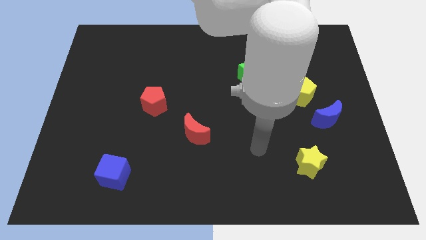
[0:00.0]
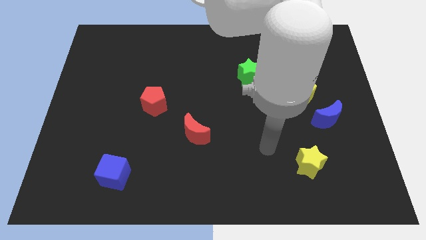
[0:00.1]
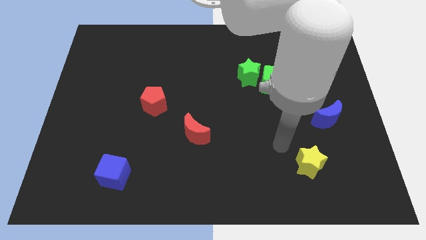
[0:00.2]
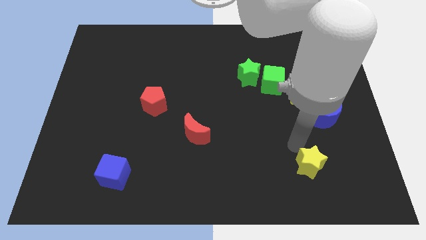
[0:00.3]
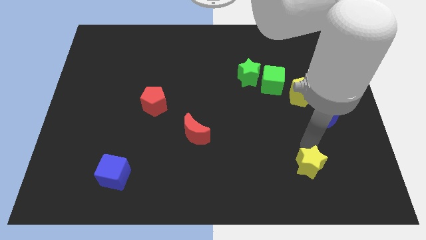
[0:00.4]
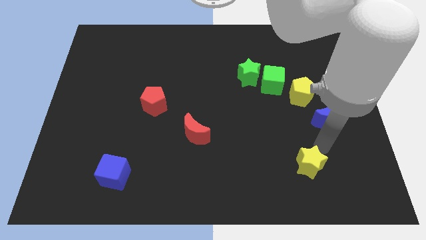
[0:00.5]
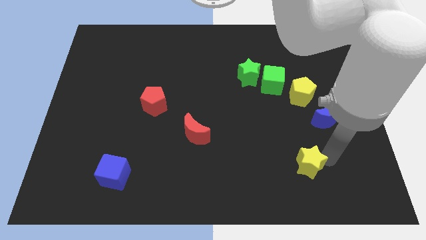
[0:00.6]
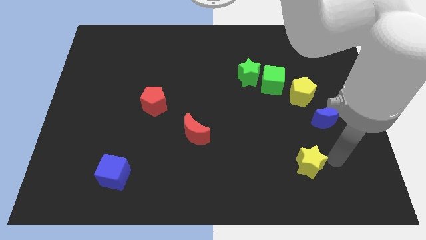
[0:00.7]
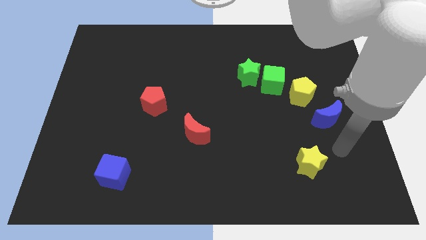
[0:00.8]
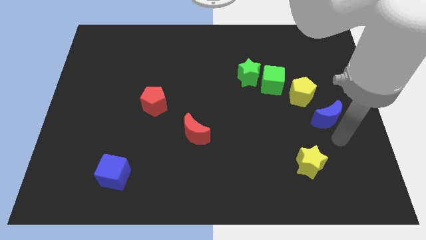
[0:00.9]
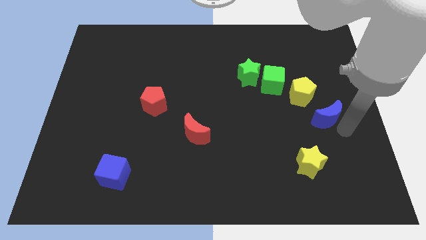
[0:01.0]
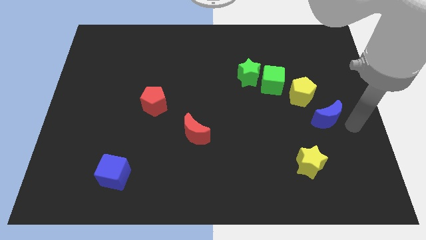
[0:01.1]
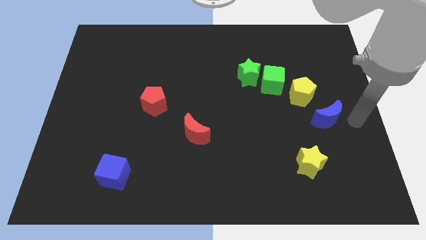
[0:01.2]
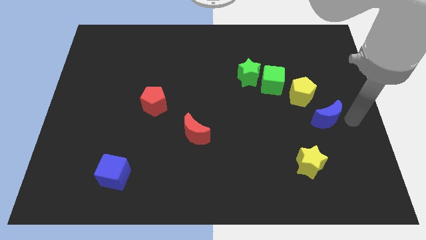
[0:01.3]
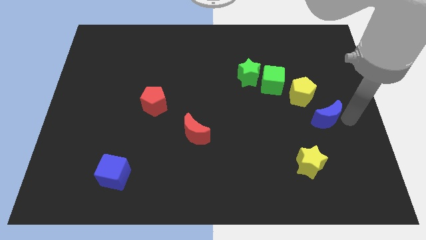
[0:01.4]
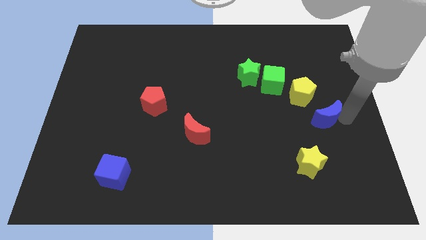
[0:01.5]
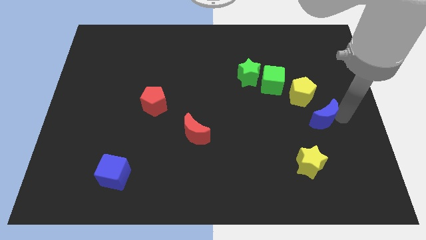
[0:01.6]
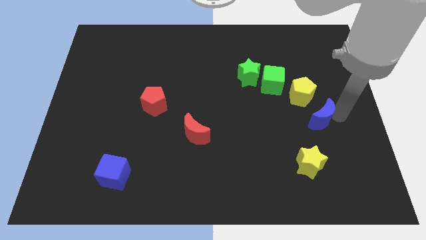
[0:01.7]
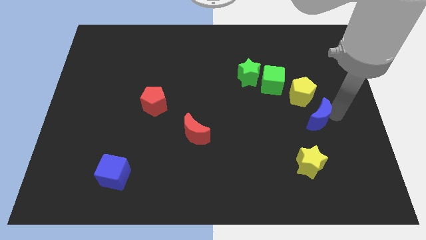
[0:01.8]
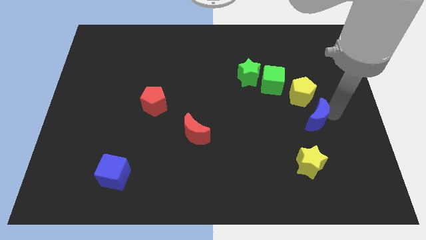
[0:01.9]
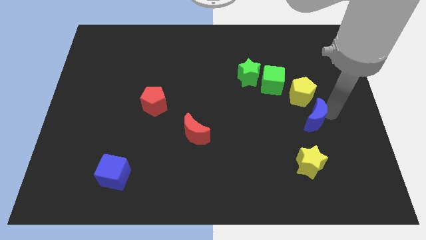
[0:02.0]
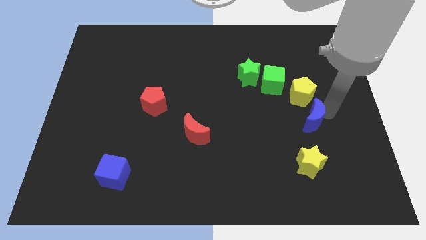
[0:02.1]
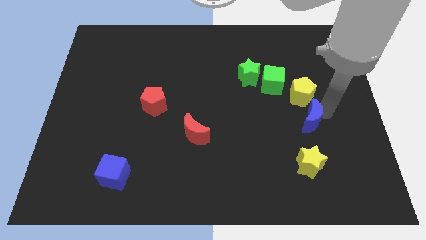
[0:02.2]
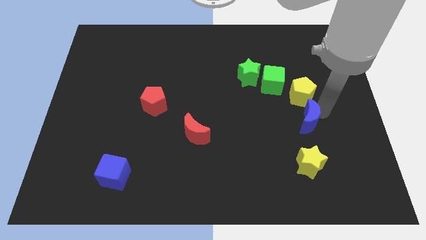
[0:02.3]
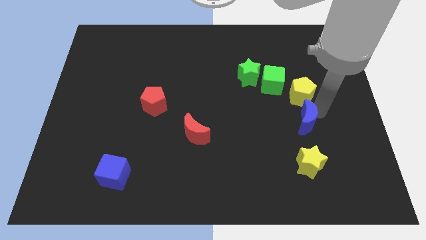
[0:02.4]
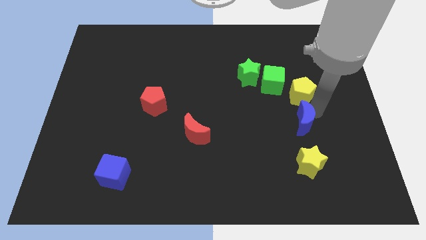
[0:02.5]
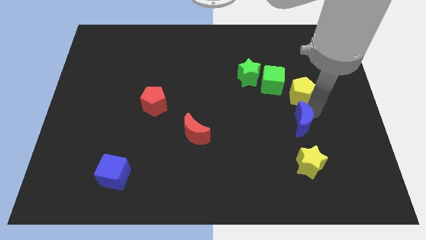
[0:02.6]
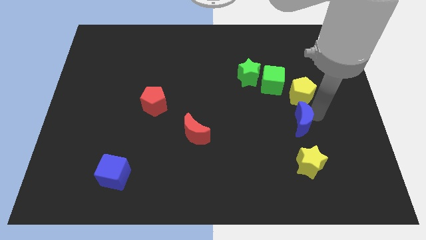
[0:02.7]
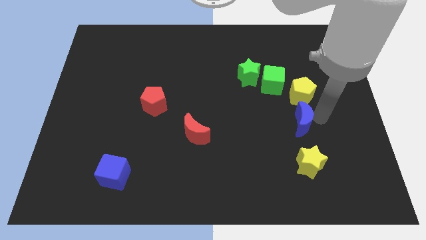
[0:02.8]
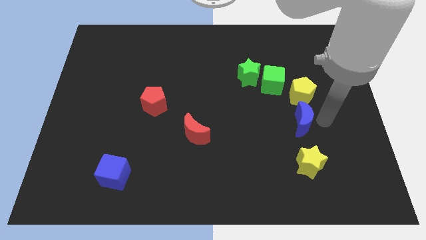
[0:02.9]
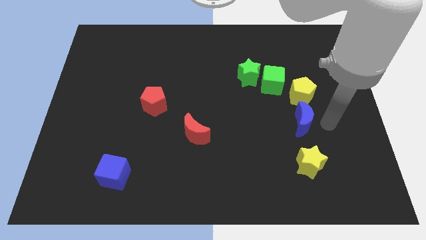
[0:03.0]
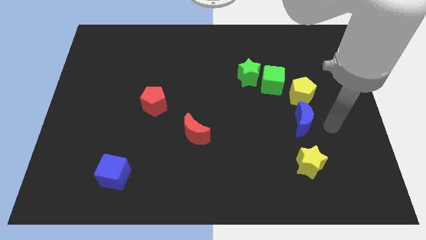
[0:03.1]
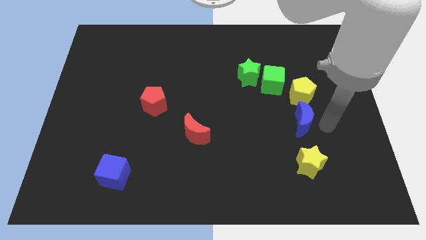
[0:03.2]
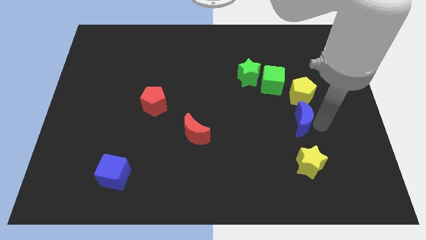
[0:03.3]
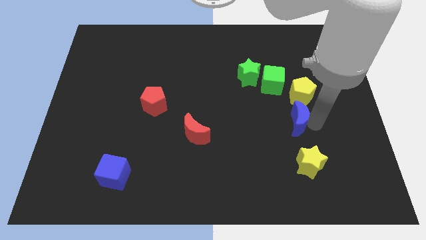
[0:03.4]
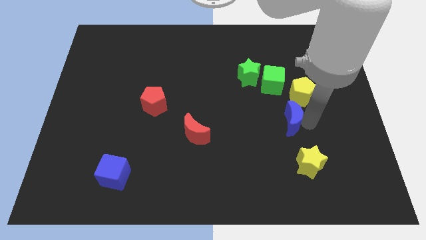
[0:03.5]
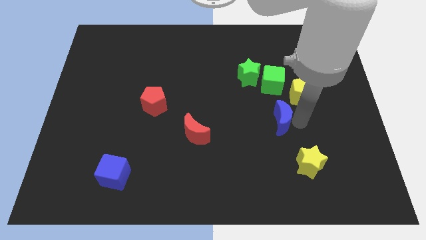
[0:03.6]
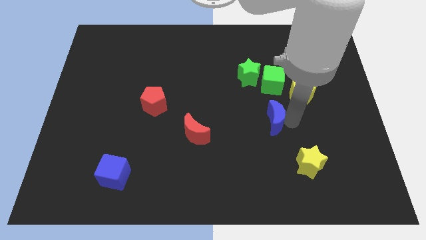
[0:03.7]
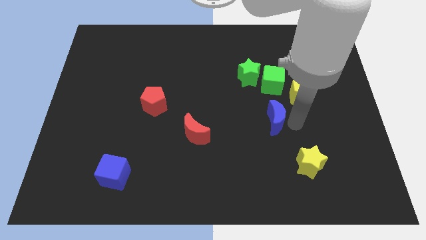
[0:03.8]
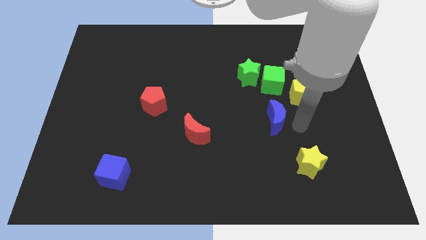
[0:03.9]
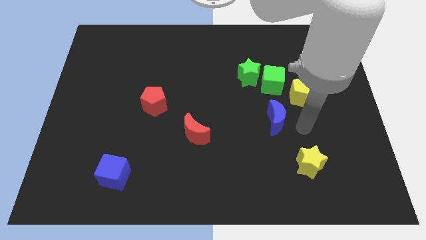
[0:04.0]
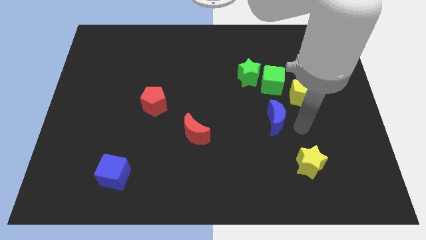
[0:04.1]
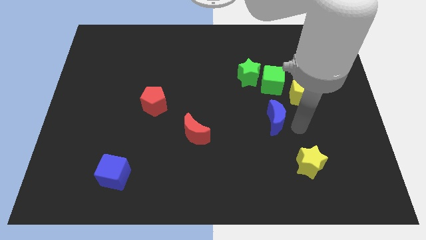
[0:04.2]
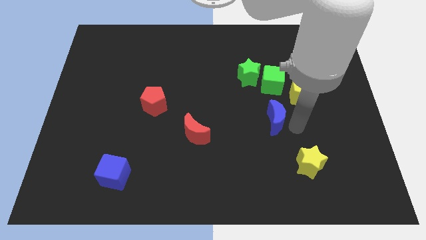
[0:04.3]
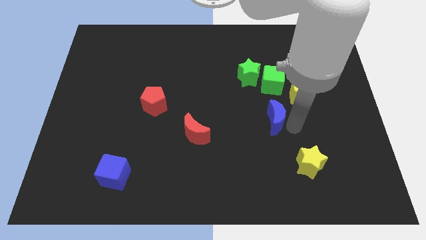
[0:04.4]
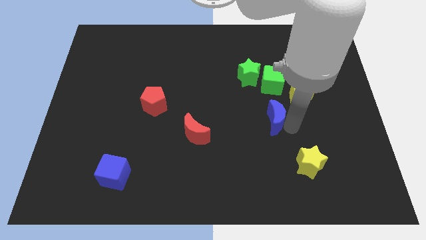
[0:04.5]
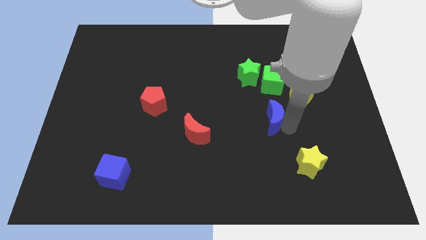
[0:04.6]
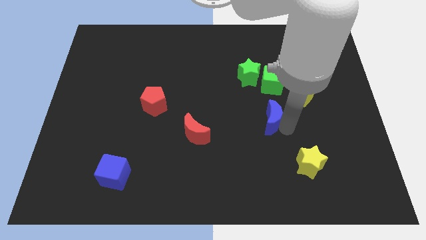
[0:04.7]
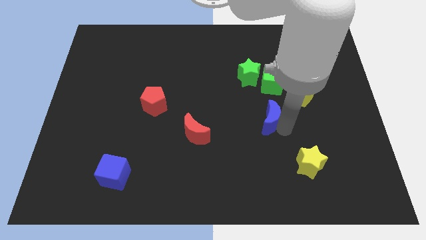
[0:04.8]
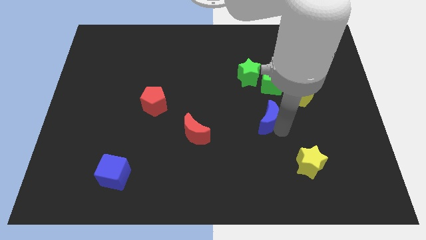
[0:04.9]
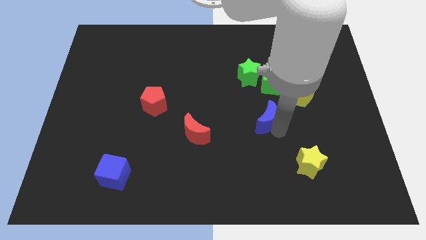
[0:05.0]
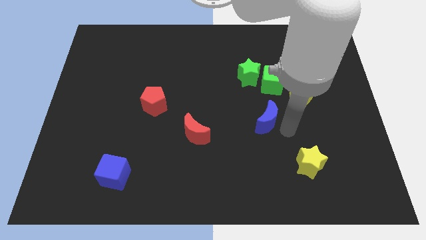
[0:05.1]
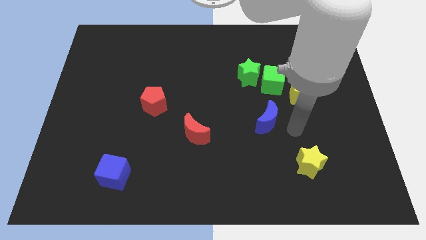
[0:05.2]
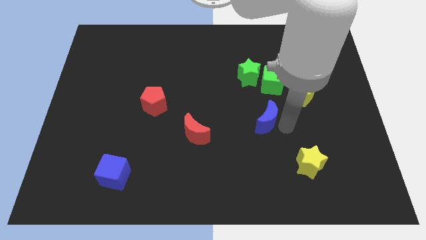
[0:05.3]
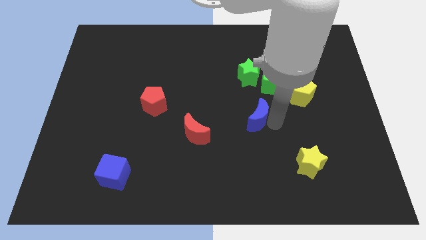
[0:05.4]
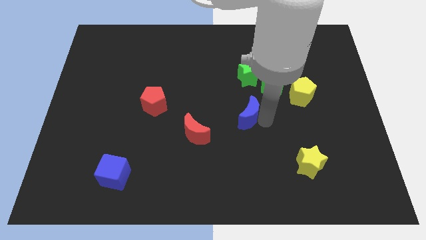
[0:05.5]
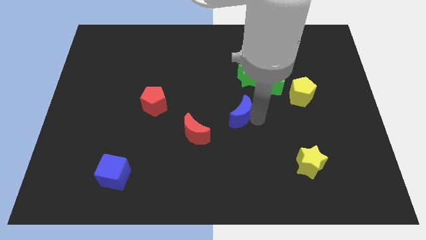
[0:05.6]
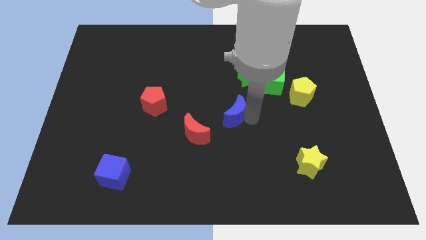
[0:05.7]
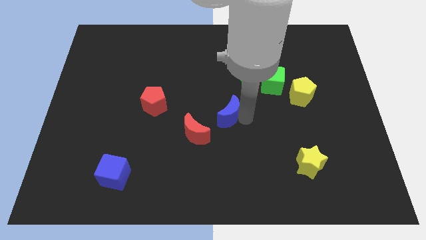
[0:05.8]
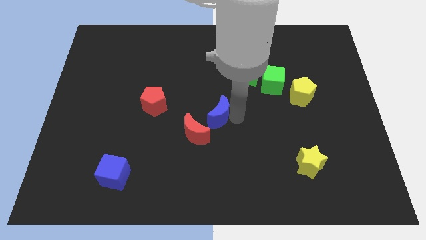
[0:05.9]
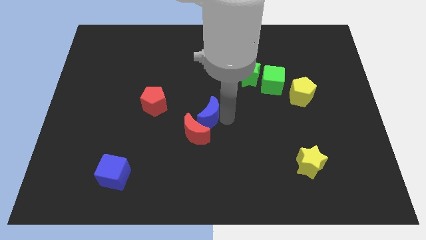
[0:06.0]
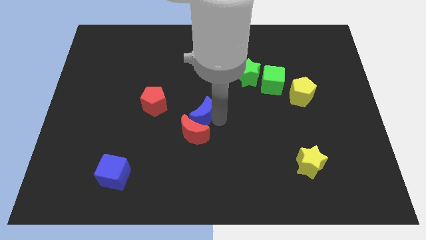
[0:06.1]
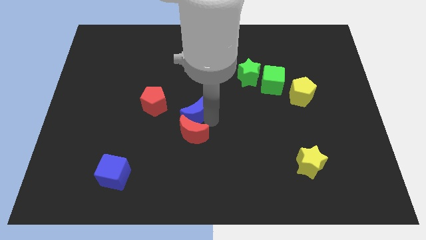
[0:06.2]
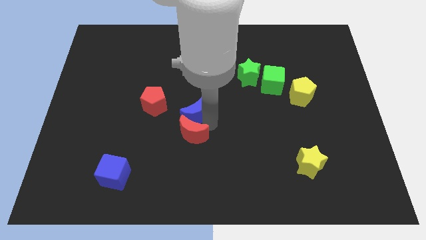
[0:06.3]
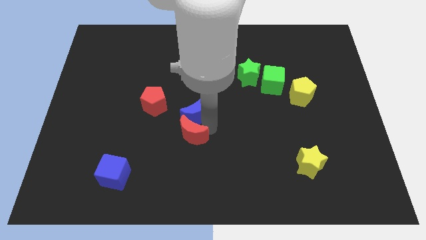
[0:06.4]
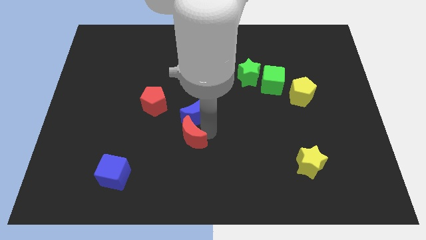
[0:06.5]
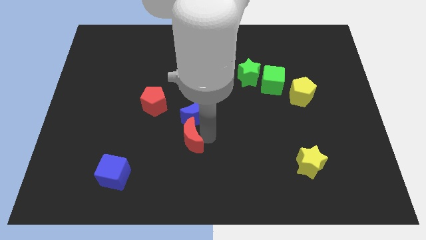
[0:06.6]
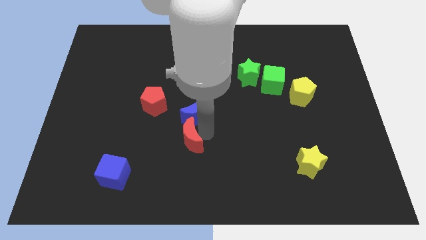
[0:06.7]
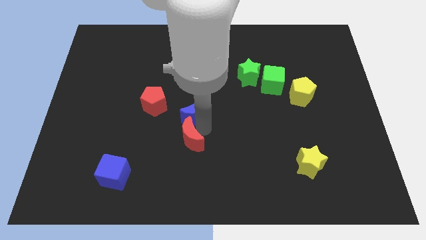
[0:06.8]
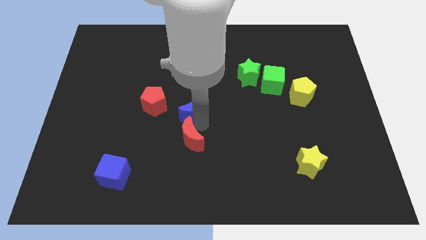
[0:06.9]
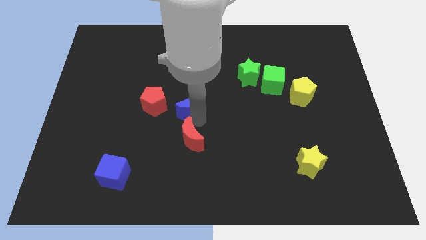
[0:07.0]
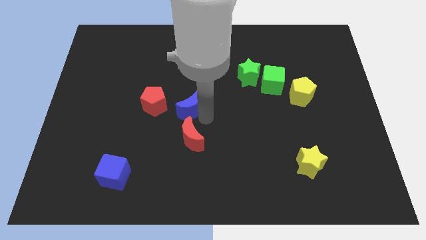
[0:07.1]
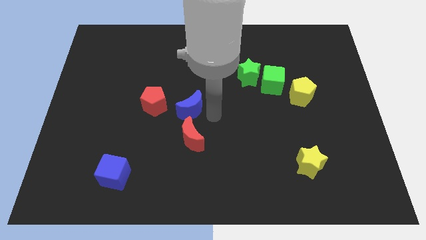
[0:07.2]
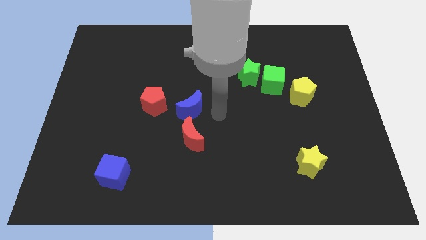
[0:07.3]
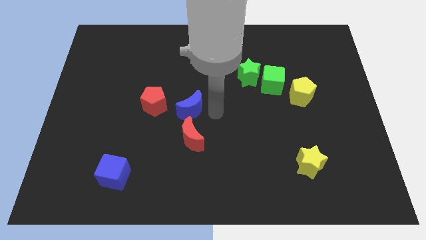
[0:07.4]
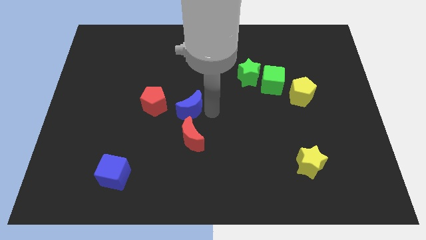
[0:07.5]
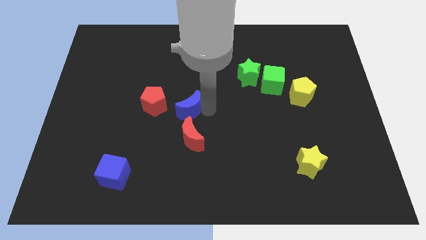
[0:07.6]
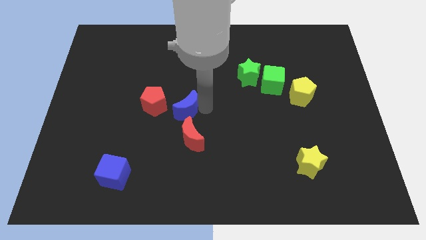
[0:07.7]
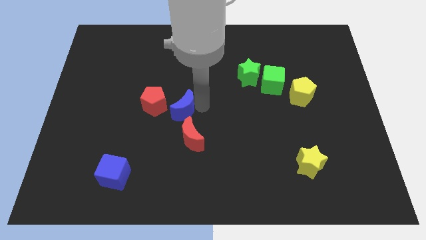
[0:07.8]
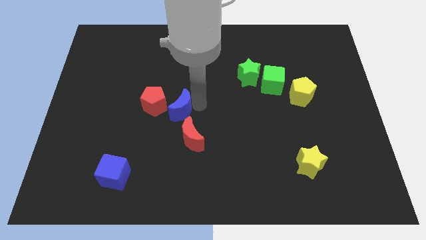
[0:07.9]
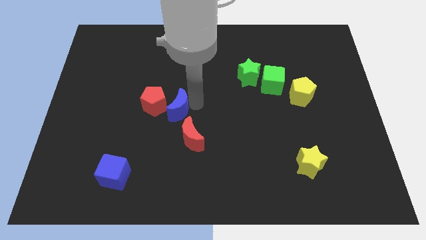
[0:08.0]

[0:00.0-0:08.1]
put the blue moon towards the red pentagon
